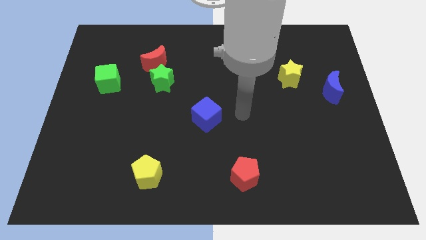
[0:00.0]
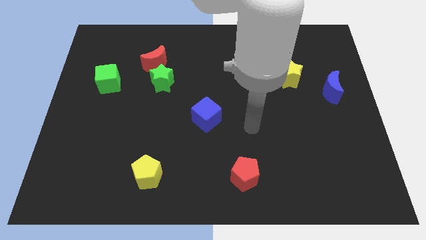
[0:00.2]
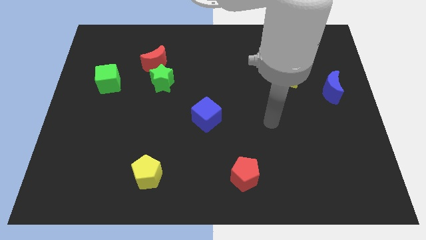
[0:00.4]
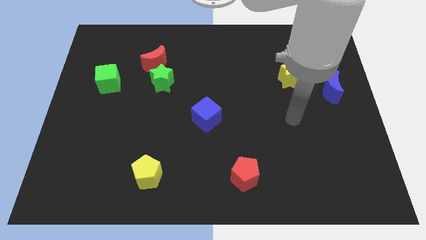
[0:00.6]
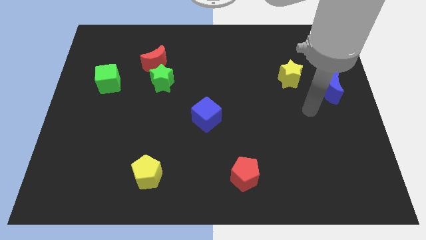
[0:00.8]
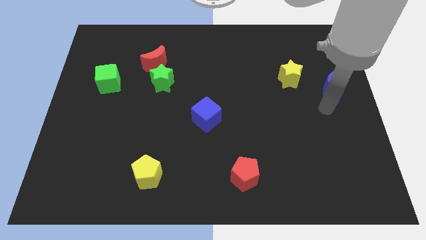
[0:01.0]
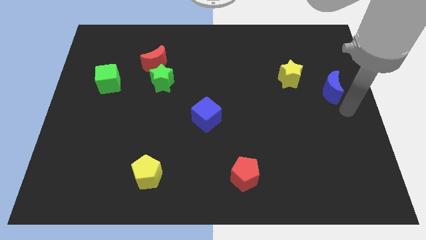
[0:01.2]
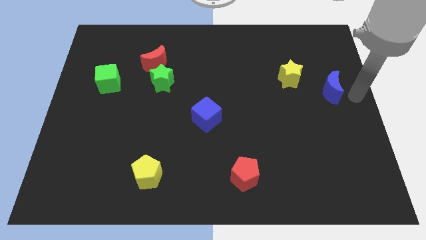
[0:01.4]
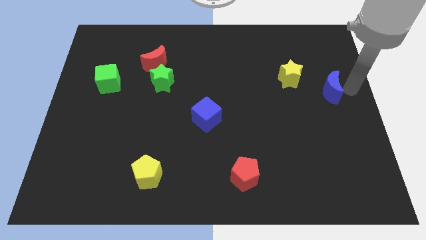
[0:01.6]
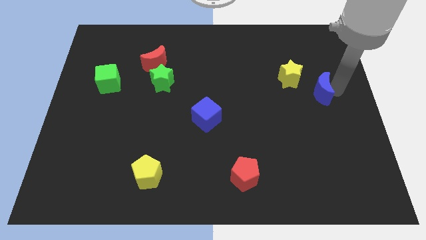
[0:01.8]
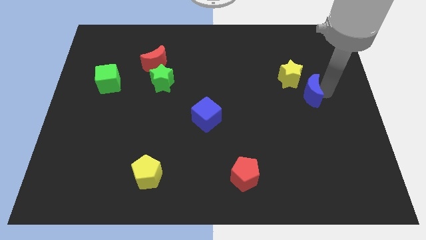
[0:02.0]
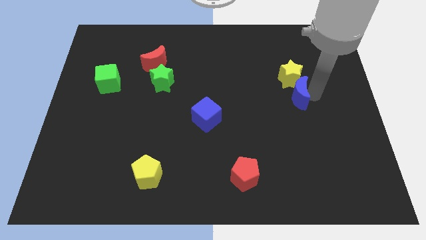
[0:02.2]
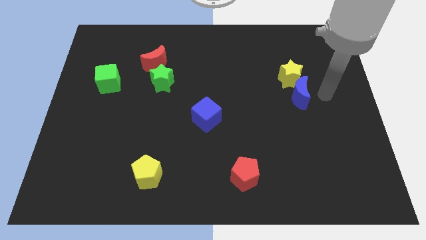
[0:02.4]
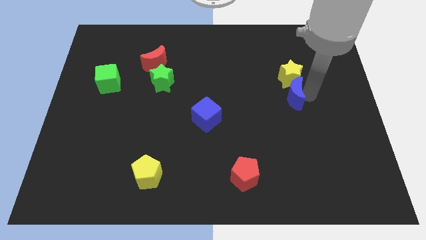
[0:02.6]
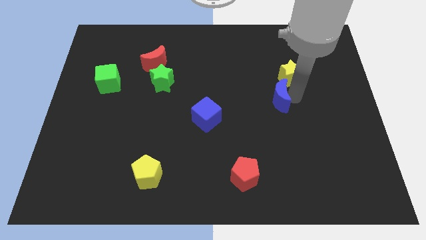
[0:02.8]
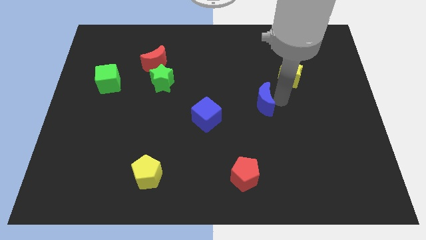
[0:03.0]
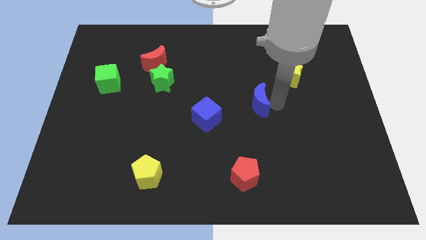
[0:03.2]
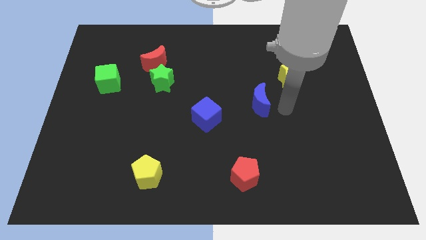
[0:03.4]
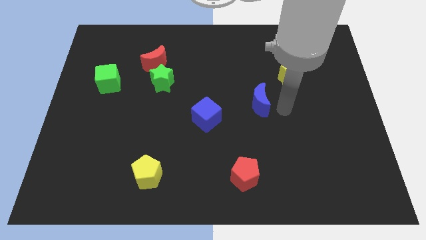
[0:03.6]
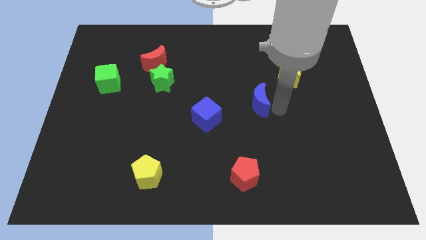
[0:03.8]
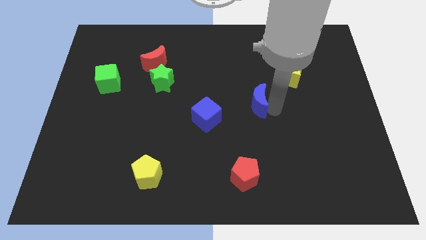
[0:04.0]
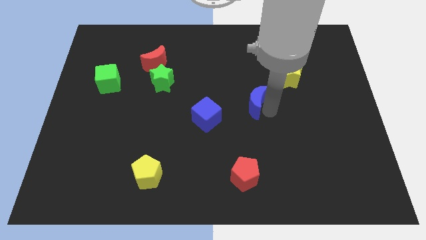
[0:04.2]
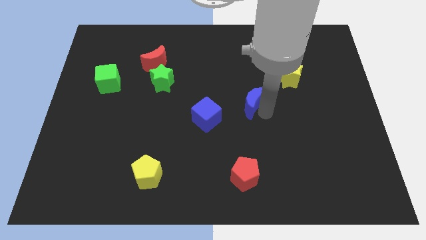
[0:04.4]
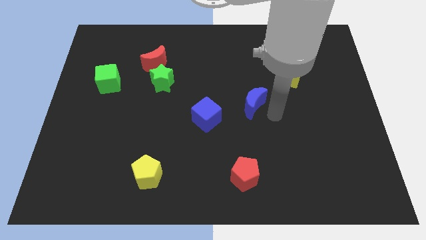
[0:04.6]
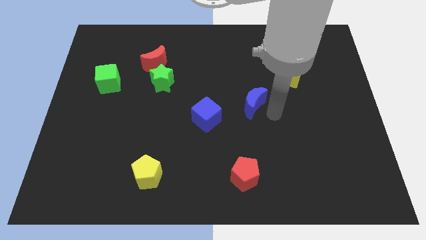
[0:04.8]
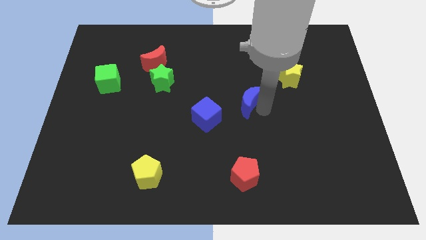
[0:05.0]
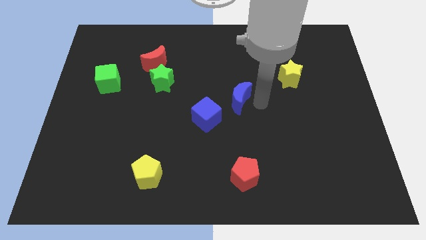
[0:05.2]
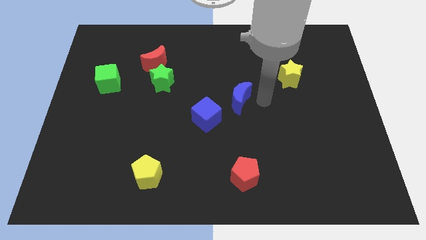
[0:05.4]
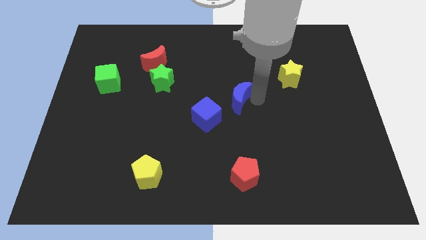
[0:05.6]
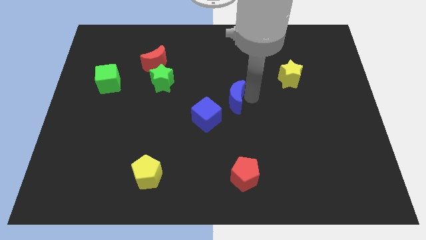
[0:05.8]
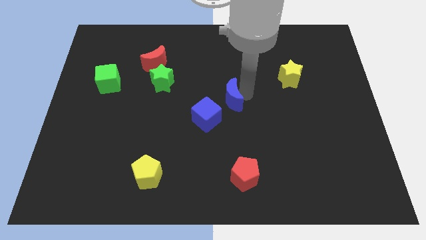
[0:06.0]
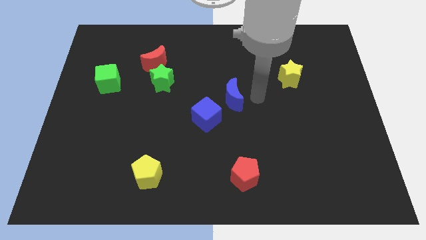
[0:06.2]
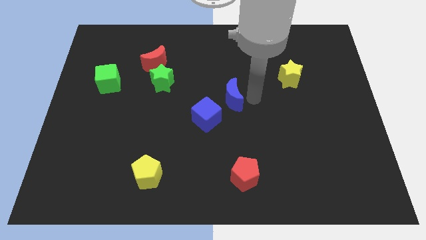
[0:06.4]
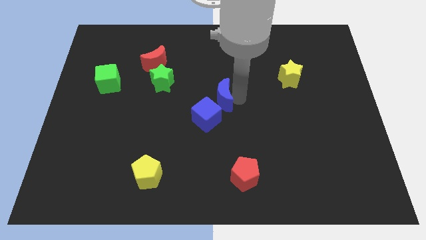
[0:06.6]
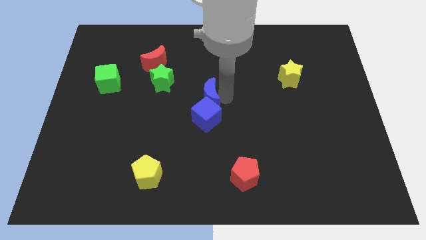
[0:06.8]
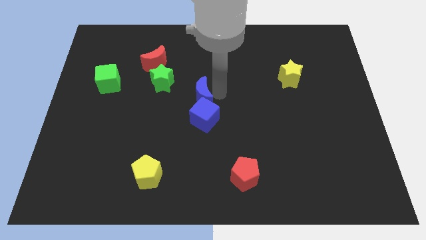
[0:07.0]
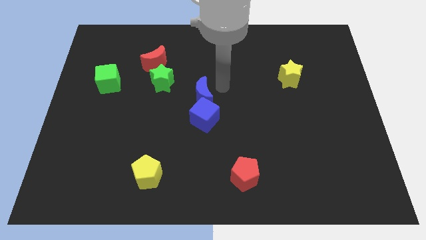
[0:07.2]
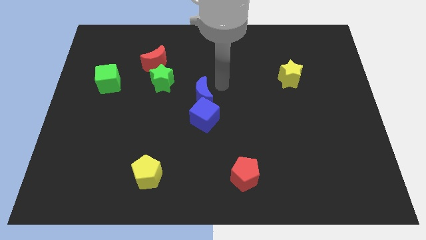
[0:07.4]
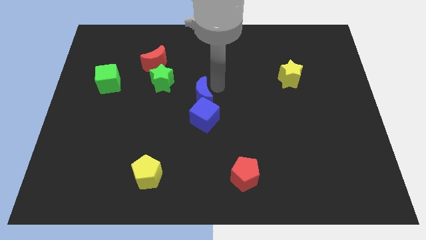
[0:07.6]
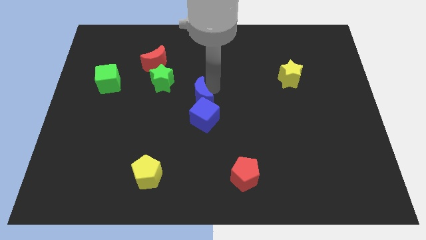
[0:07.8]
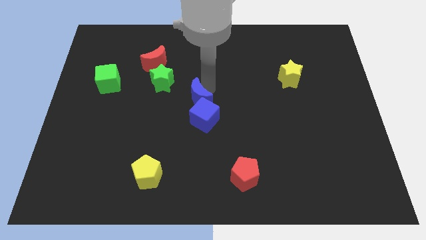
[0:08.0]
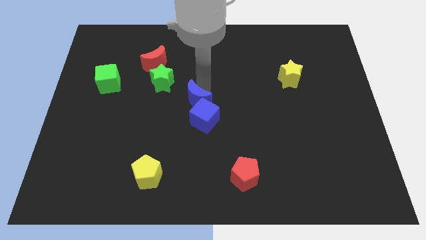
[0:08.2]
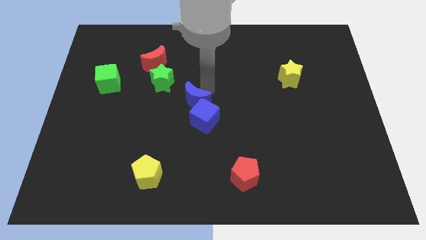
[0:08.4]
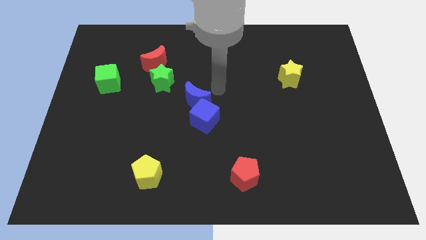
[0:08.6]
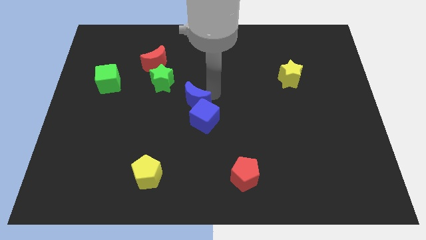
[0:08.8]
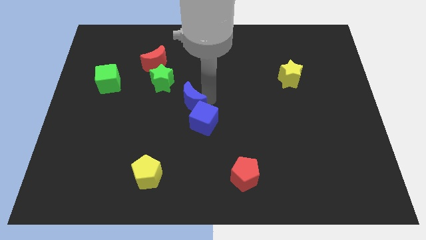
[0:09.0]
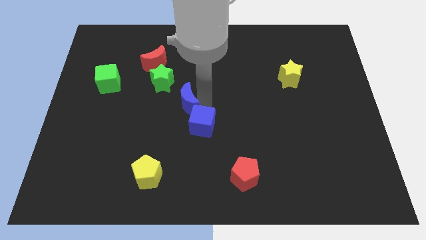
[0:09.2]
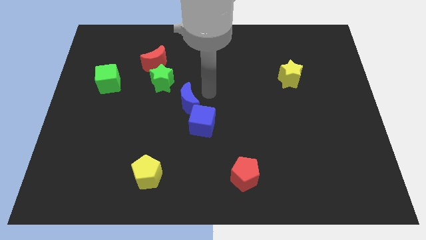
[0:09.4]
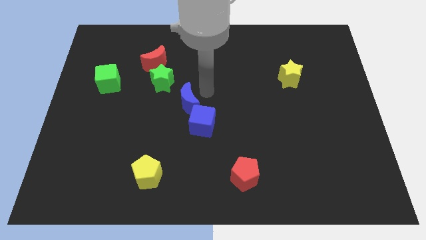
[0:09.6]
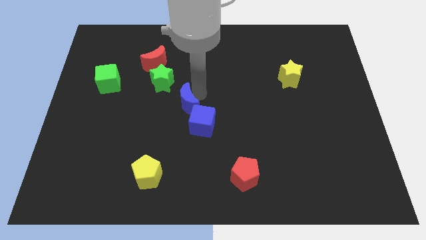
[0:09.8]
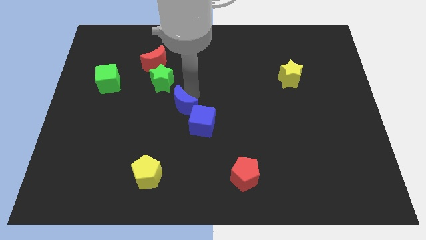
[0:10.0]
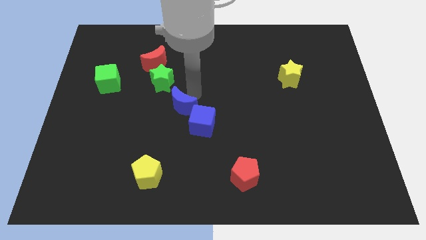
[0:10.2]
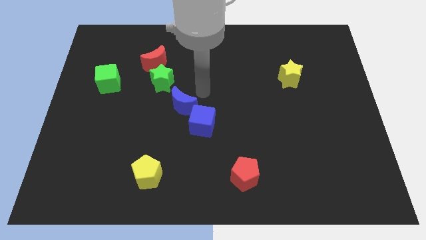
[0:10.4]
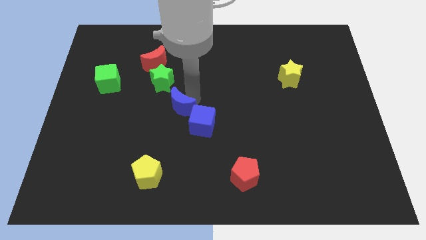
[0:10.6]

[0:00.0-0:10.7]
slide the blue moon to the left side of the blue cube

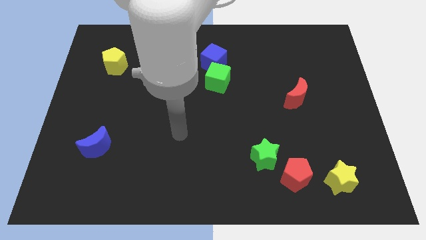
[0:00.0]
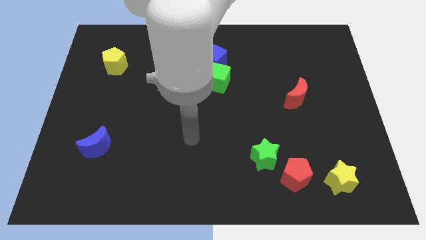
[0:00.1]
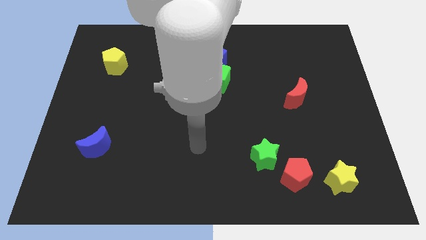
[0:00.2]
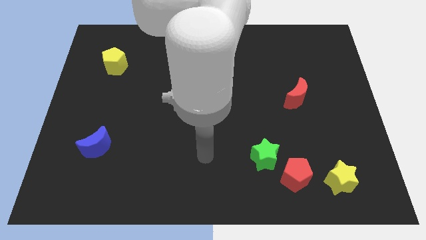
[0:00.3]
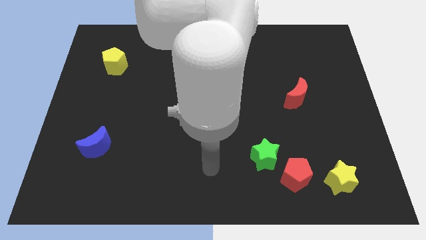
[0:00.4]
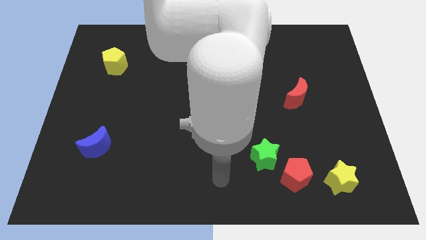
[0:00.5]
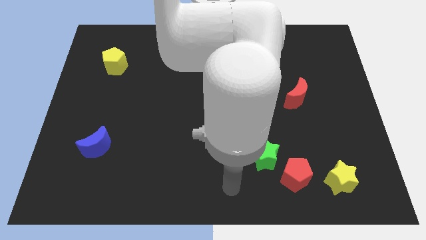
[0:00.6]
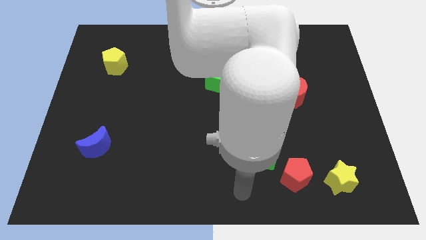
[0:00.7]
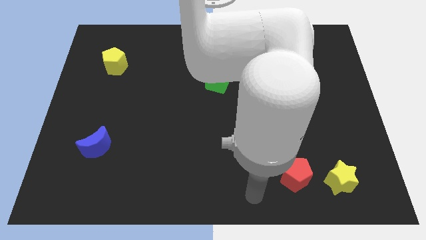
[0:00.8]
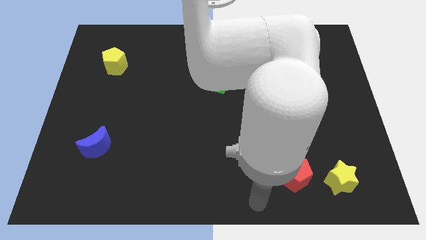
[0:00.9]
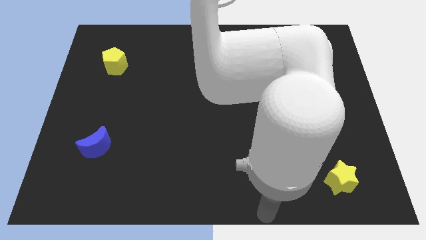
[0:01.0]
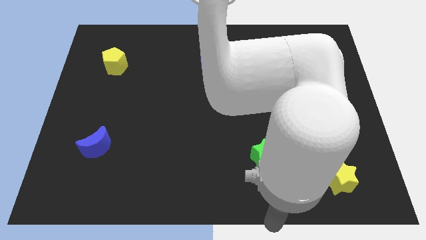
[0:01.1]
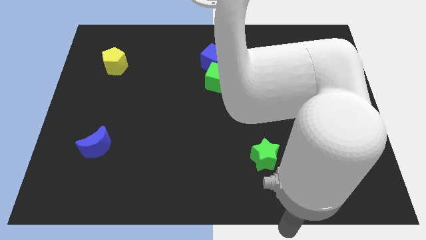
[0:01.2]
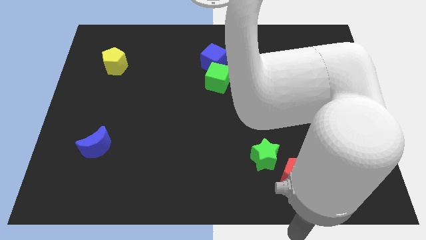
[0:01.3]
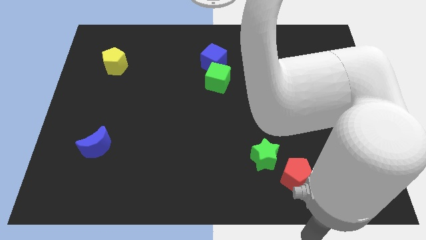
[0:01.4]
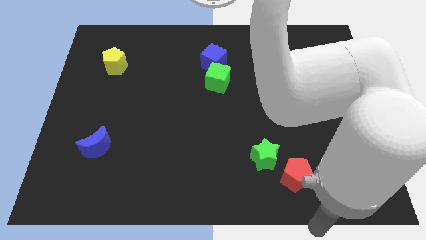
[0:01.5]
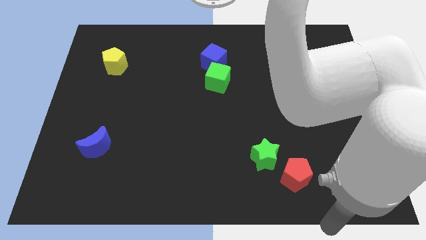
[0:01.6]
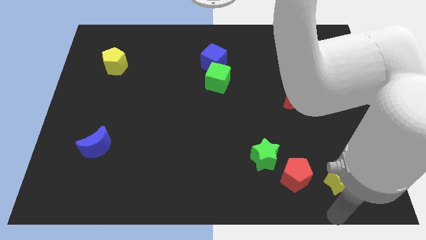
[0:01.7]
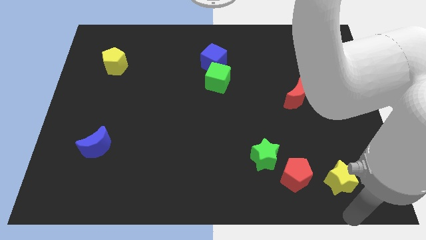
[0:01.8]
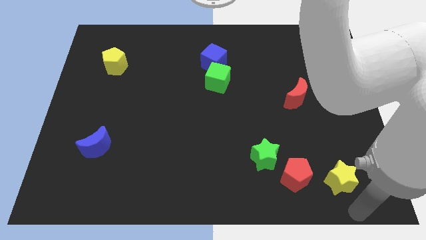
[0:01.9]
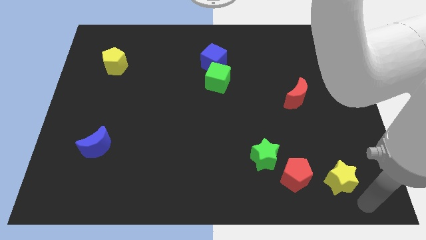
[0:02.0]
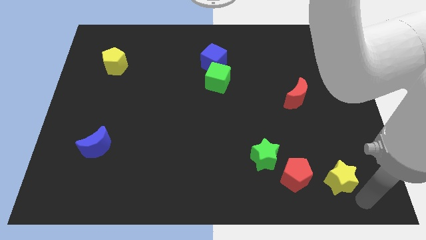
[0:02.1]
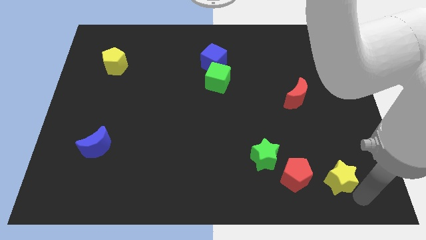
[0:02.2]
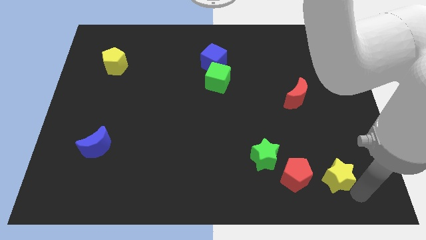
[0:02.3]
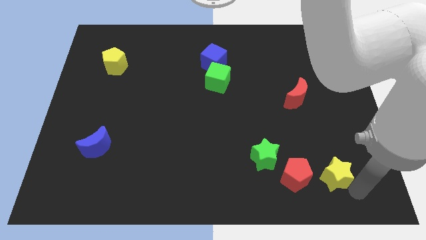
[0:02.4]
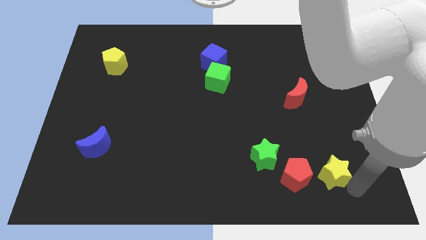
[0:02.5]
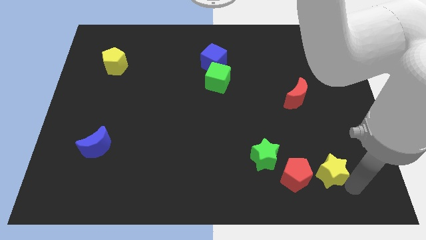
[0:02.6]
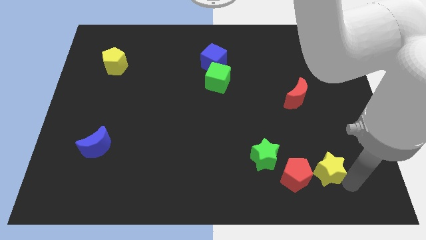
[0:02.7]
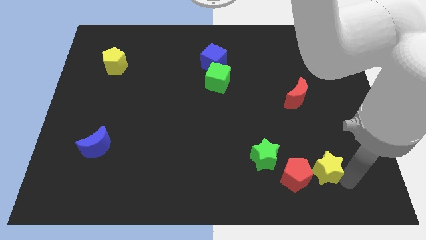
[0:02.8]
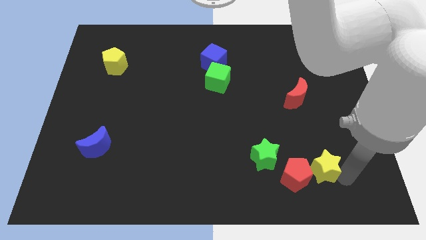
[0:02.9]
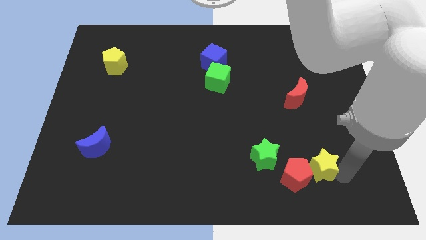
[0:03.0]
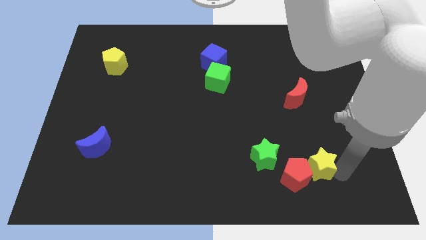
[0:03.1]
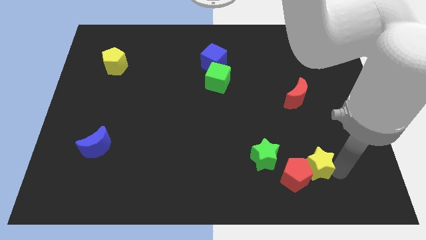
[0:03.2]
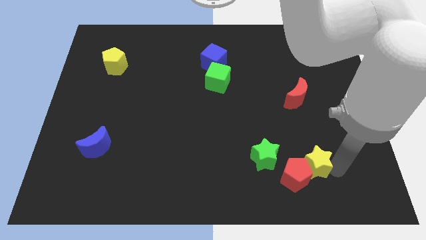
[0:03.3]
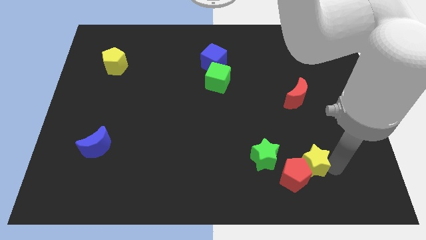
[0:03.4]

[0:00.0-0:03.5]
move the yellow star to the top side of the red pentagon
